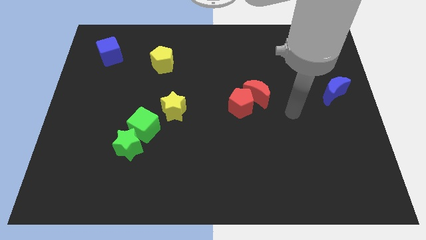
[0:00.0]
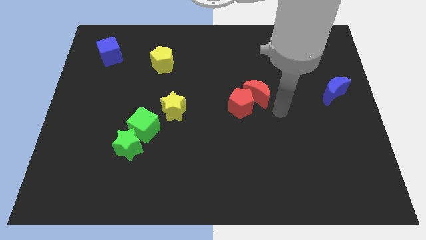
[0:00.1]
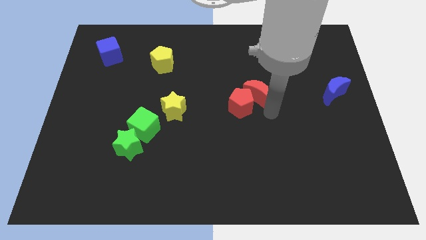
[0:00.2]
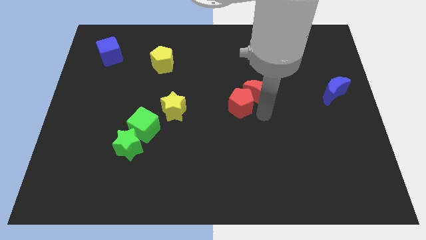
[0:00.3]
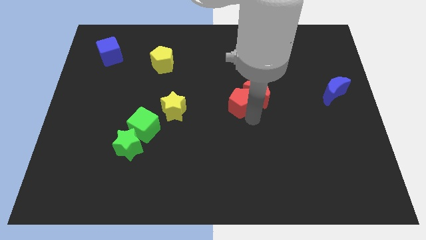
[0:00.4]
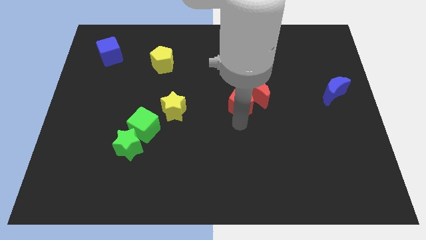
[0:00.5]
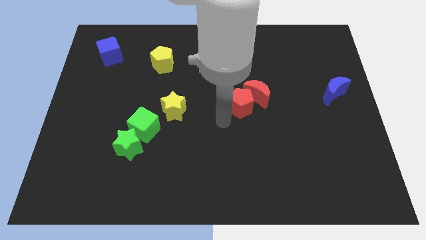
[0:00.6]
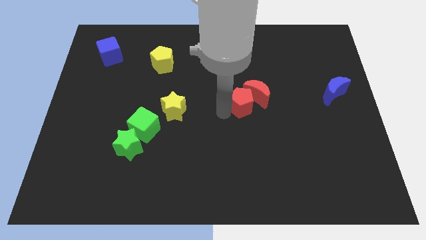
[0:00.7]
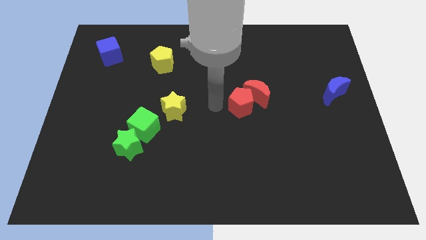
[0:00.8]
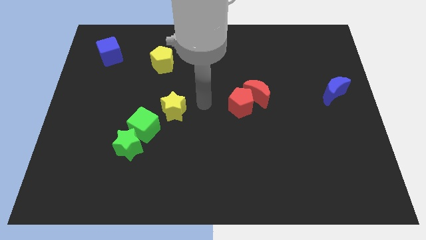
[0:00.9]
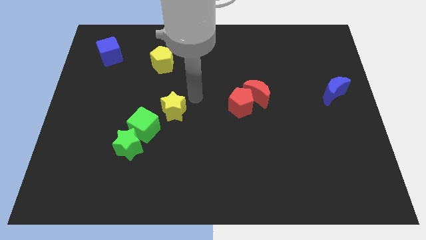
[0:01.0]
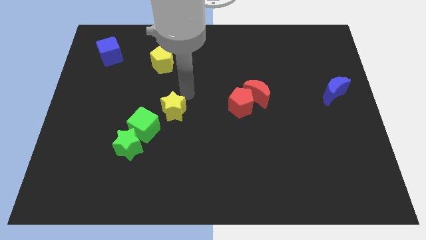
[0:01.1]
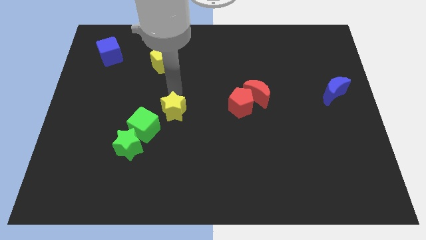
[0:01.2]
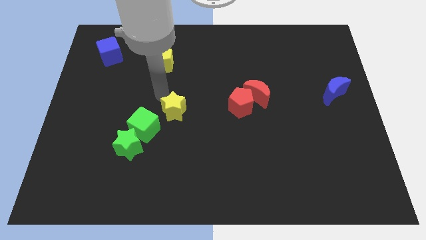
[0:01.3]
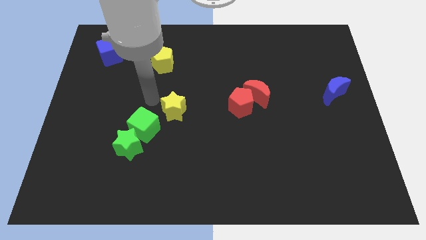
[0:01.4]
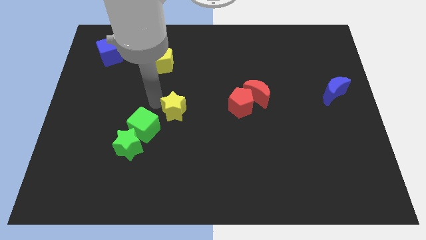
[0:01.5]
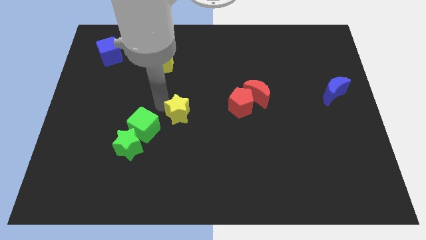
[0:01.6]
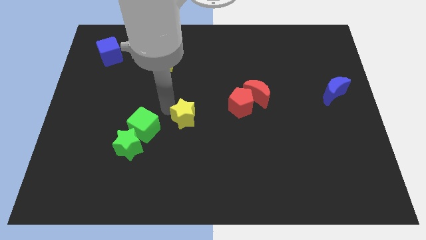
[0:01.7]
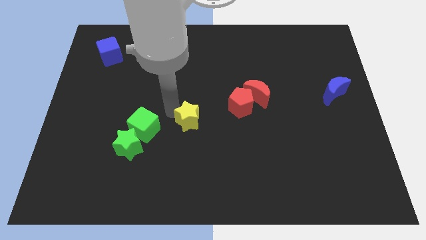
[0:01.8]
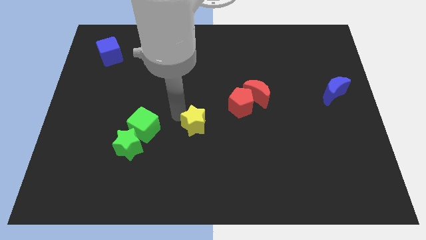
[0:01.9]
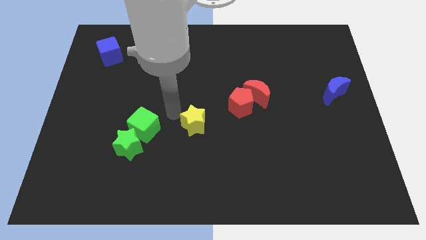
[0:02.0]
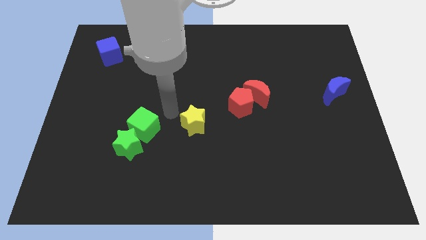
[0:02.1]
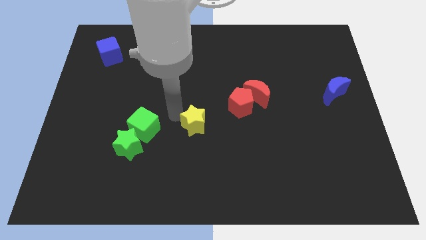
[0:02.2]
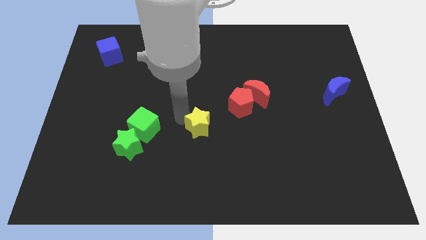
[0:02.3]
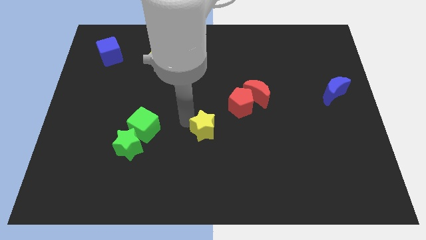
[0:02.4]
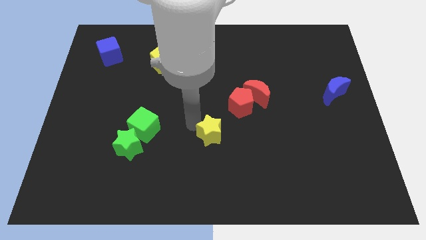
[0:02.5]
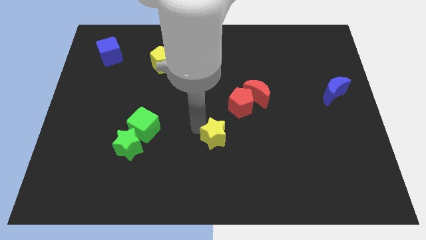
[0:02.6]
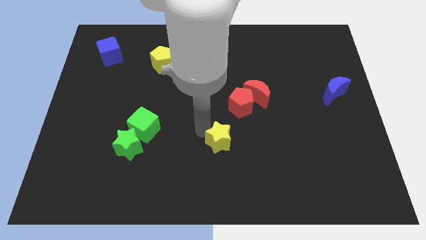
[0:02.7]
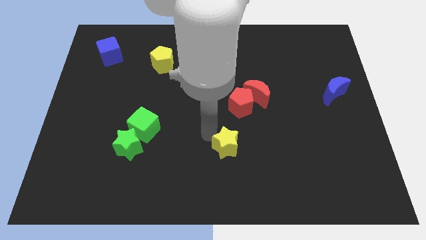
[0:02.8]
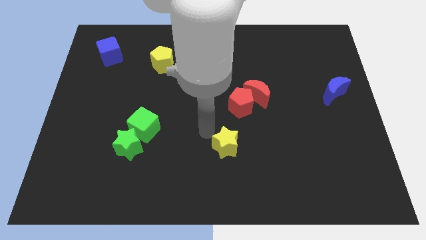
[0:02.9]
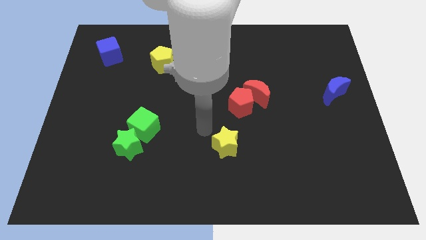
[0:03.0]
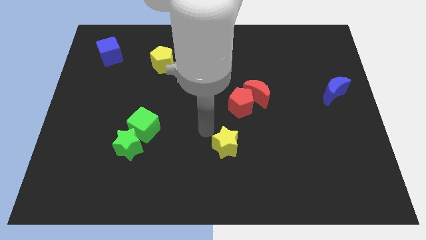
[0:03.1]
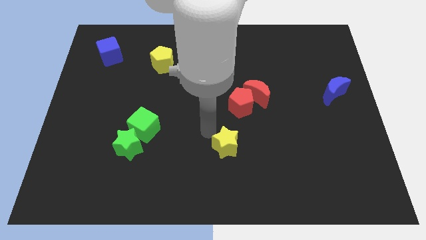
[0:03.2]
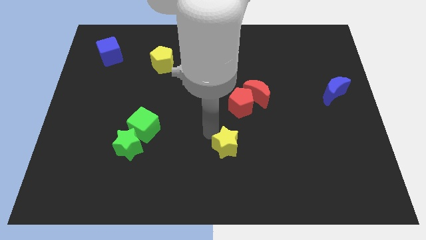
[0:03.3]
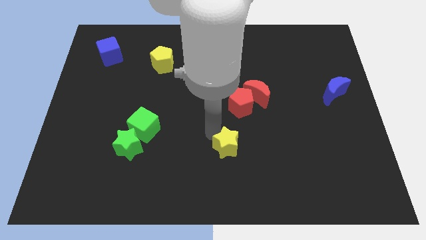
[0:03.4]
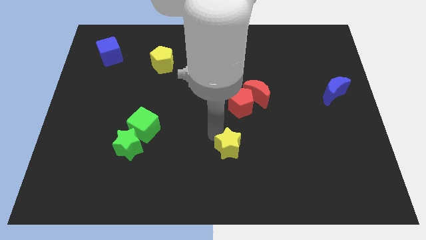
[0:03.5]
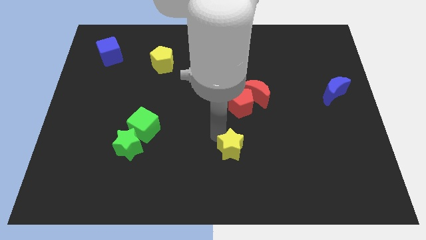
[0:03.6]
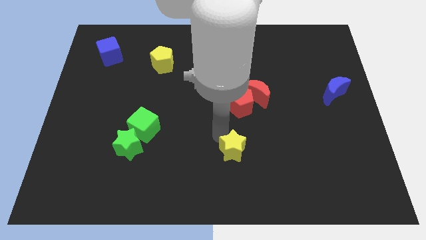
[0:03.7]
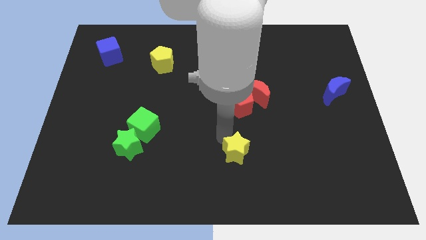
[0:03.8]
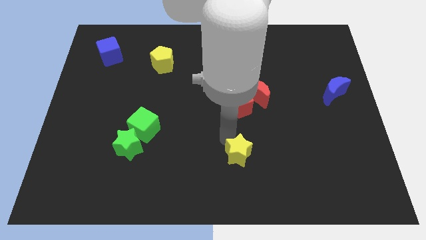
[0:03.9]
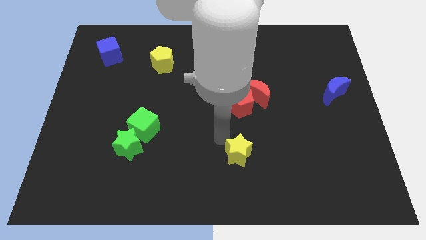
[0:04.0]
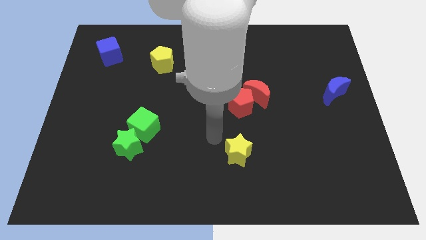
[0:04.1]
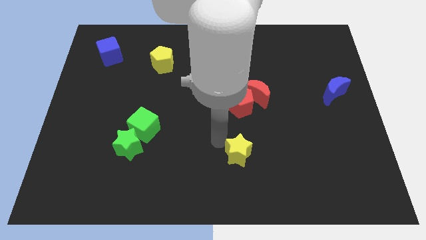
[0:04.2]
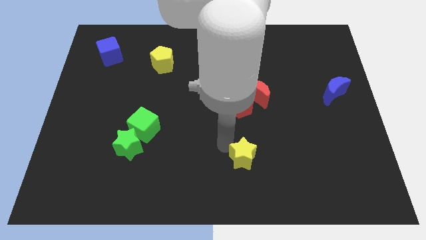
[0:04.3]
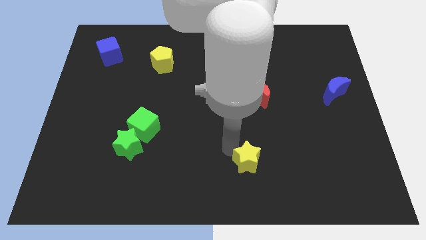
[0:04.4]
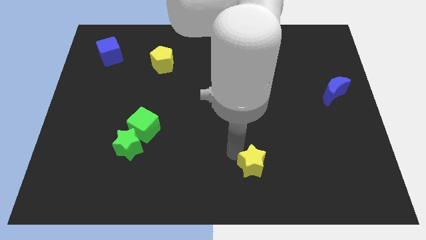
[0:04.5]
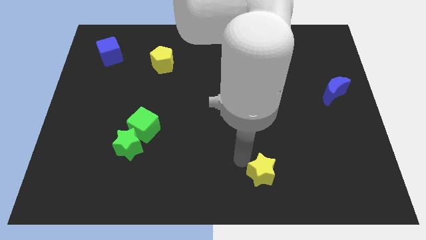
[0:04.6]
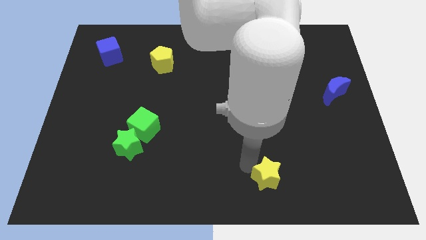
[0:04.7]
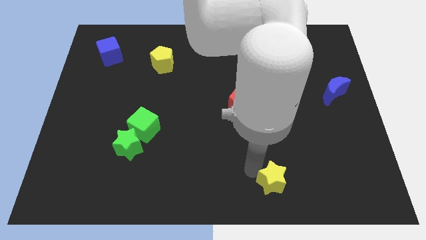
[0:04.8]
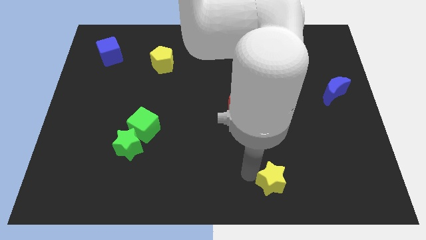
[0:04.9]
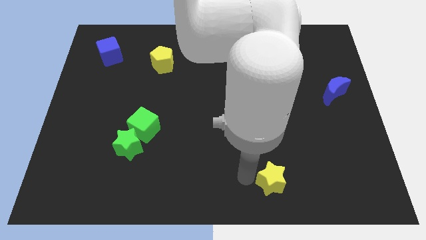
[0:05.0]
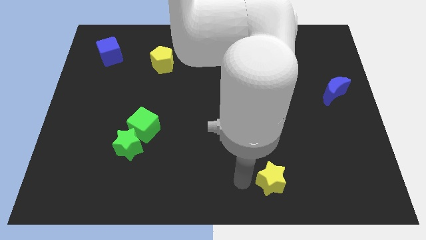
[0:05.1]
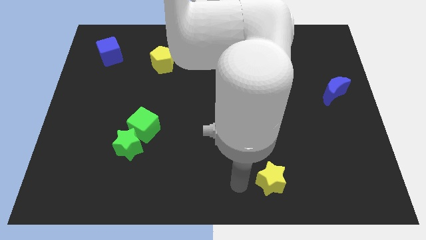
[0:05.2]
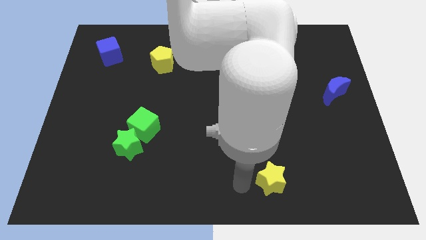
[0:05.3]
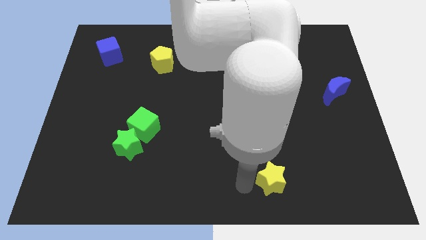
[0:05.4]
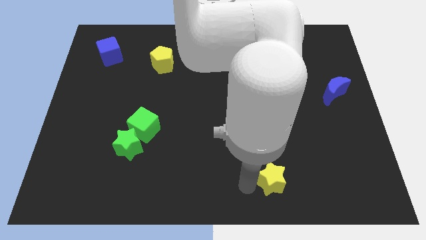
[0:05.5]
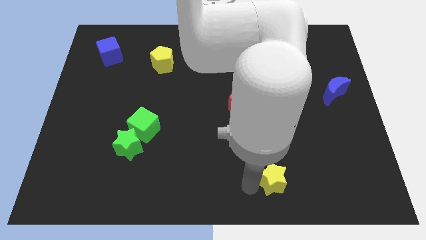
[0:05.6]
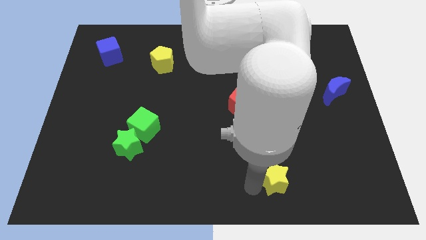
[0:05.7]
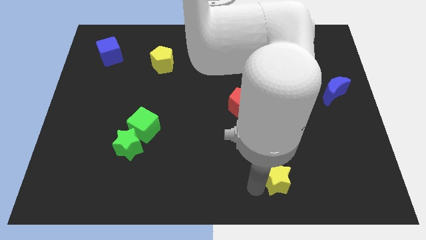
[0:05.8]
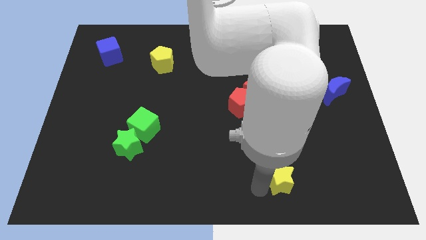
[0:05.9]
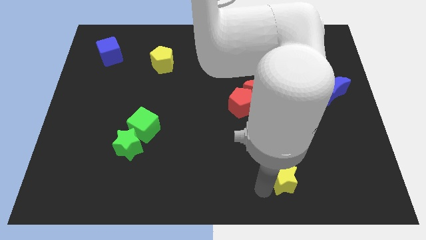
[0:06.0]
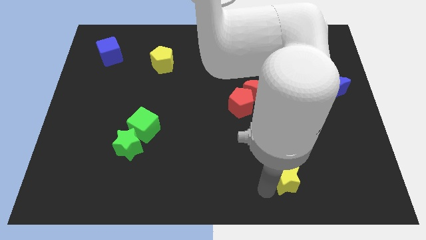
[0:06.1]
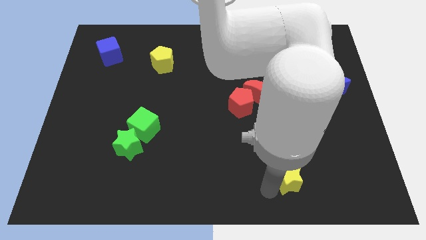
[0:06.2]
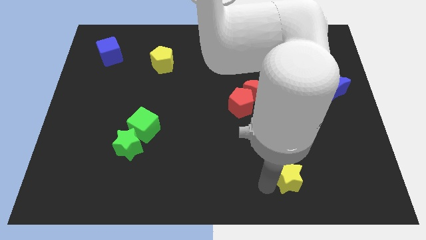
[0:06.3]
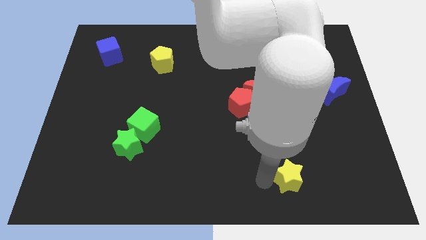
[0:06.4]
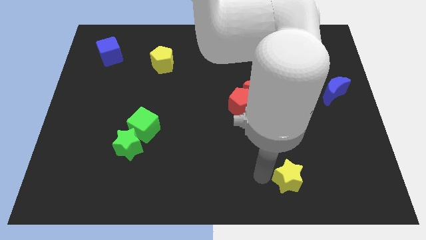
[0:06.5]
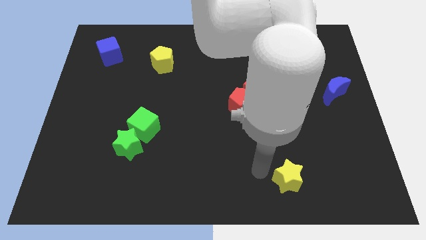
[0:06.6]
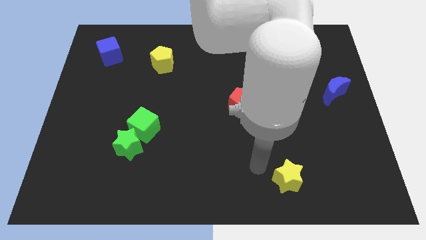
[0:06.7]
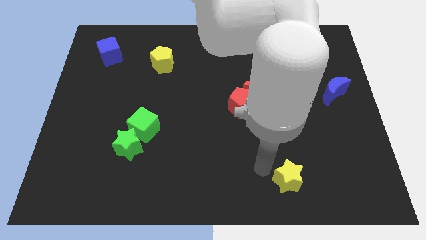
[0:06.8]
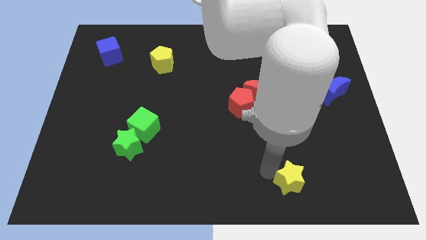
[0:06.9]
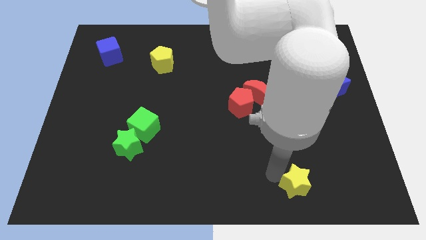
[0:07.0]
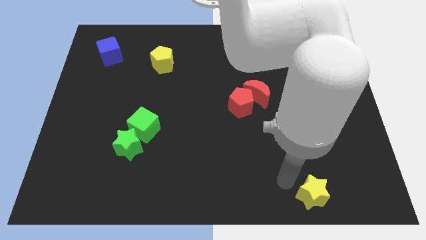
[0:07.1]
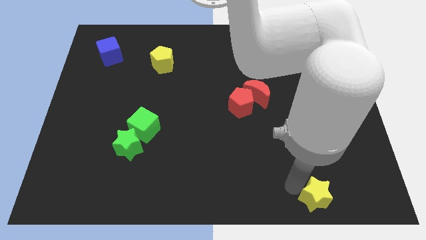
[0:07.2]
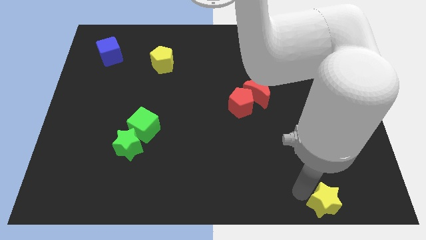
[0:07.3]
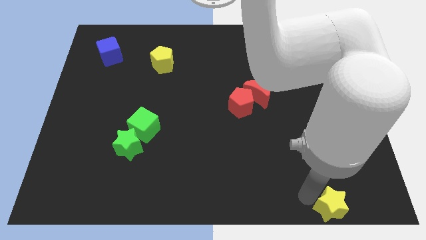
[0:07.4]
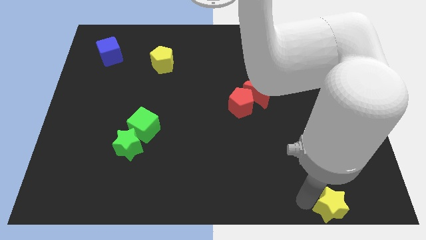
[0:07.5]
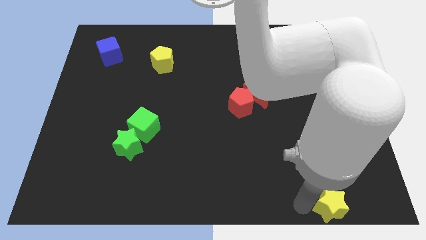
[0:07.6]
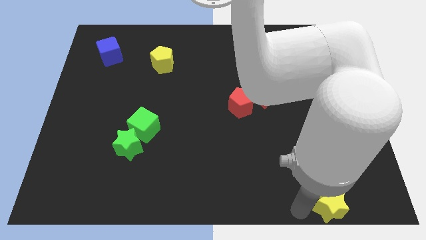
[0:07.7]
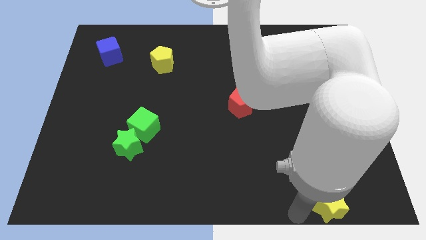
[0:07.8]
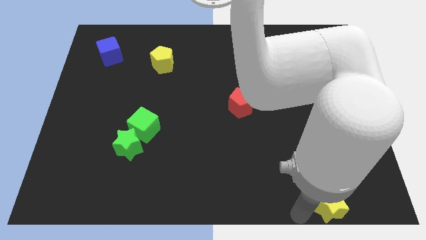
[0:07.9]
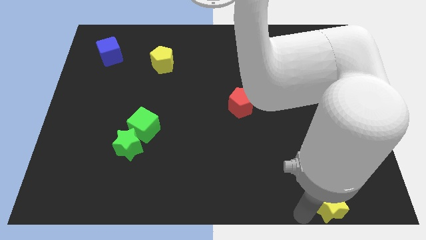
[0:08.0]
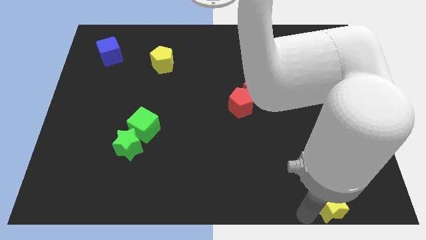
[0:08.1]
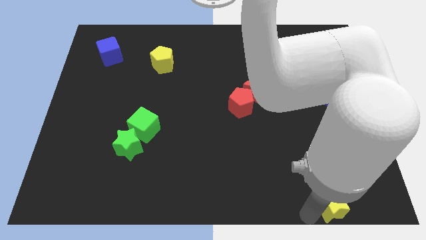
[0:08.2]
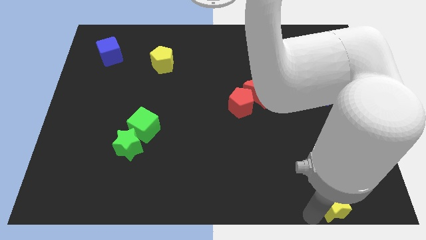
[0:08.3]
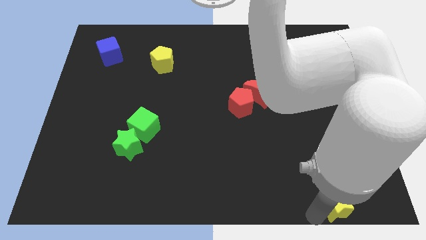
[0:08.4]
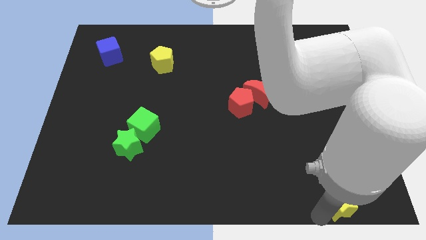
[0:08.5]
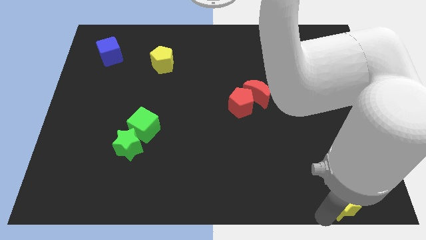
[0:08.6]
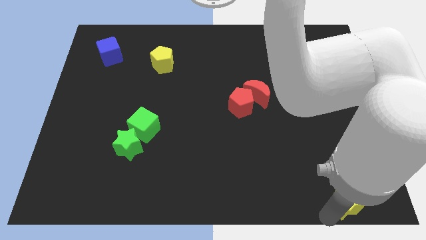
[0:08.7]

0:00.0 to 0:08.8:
move the yellow star to the lower right corner
